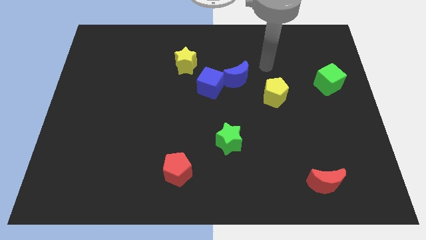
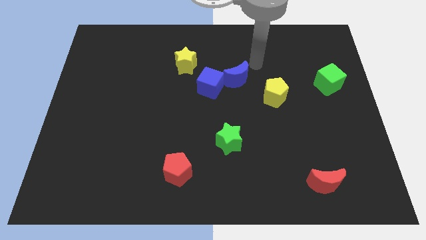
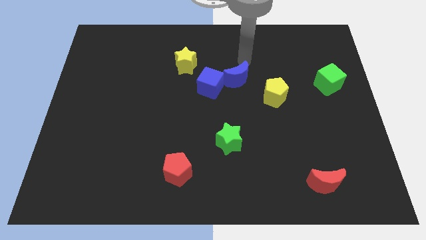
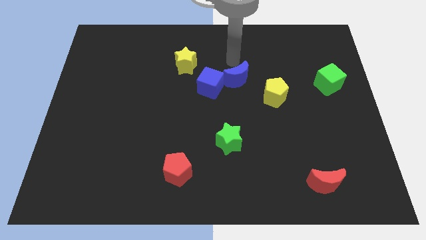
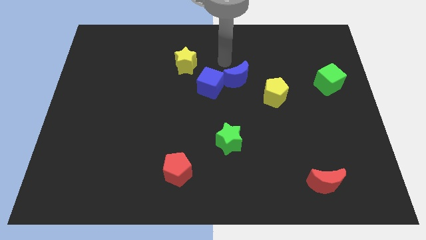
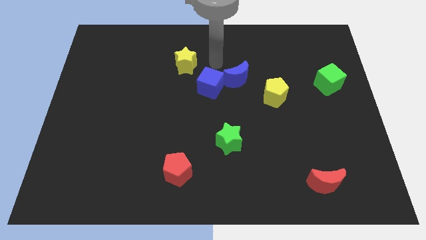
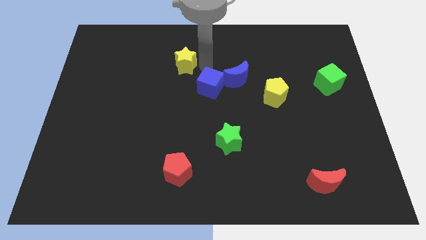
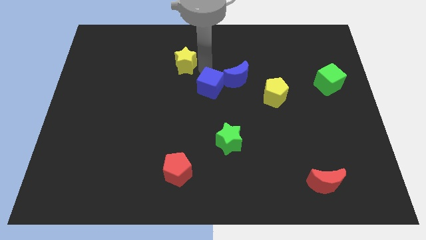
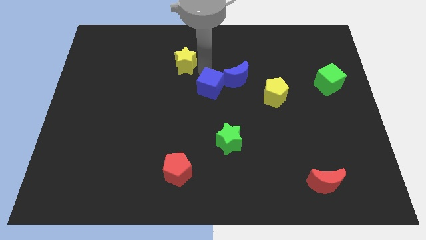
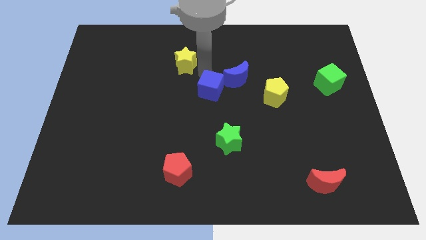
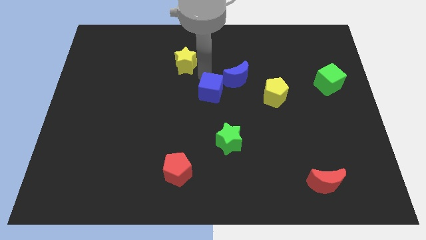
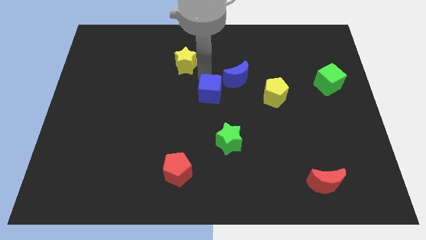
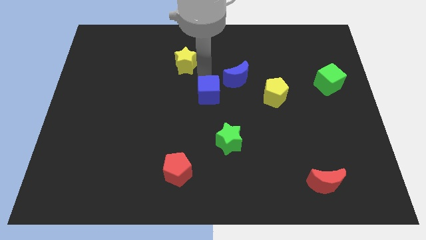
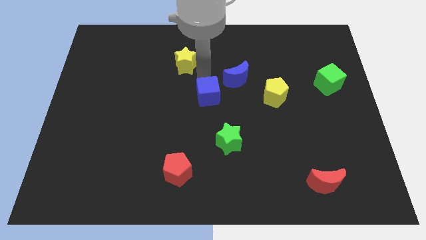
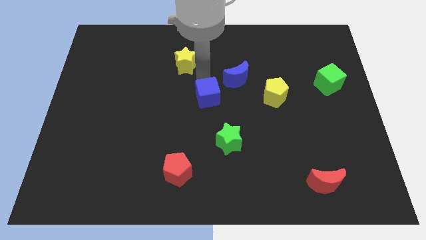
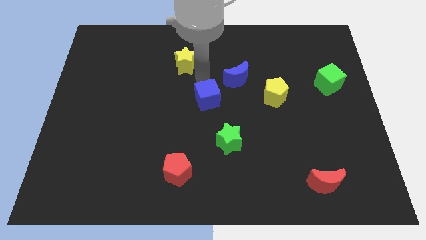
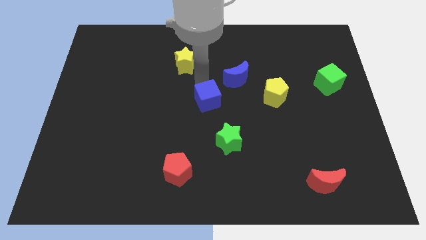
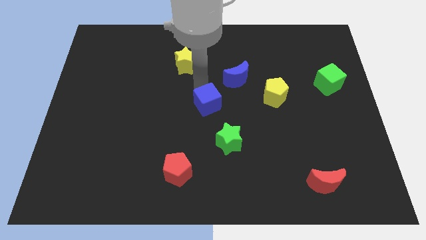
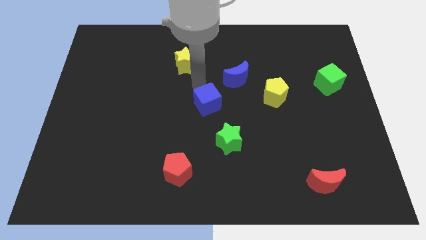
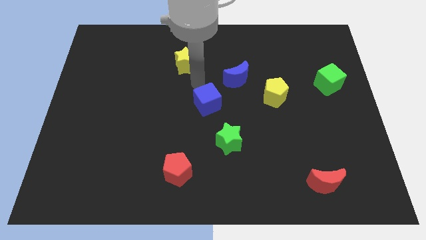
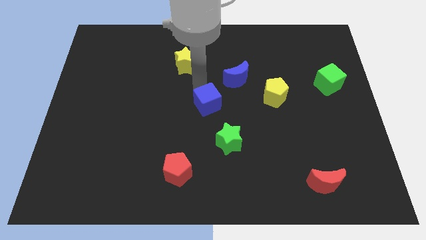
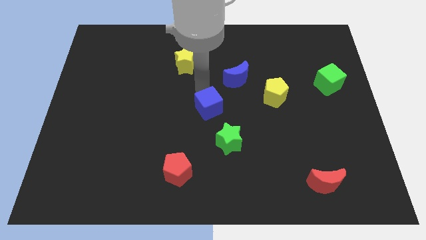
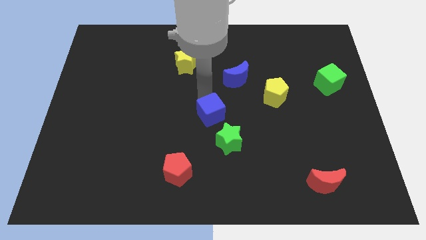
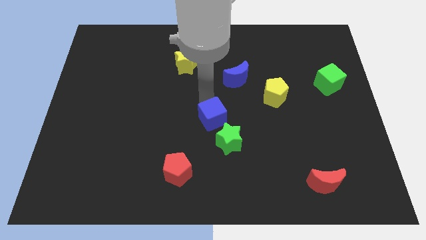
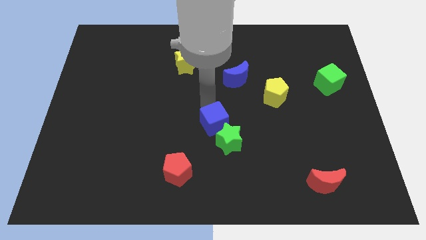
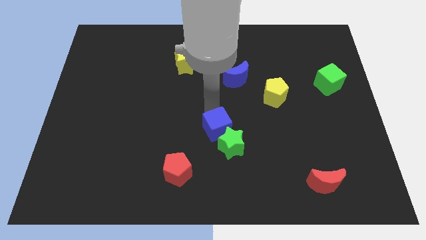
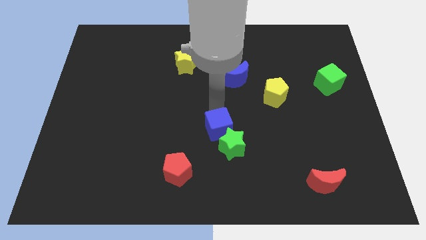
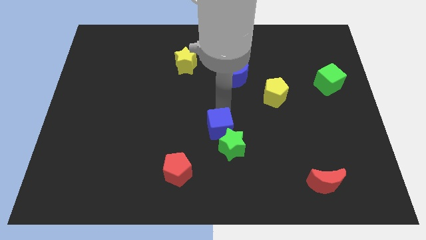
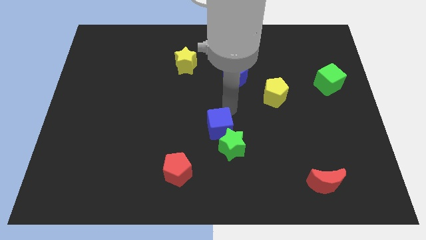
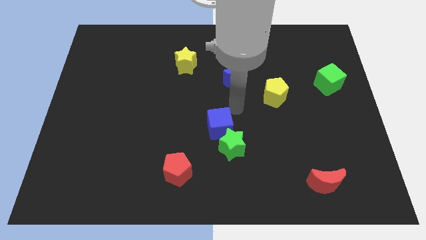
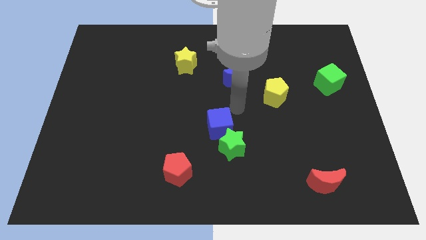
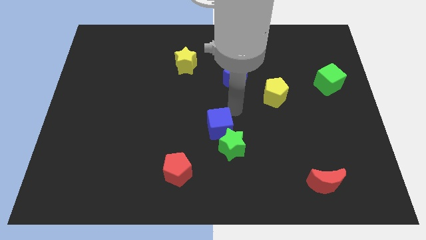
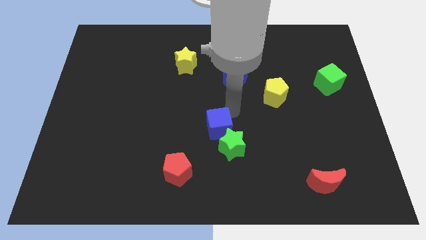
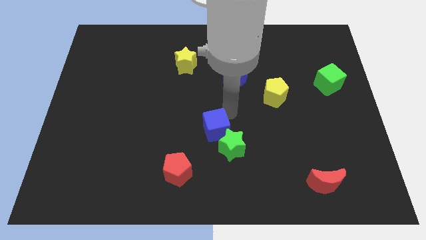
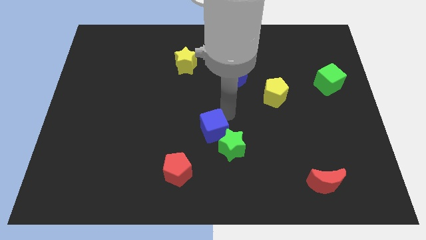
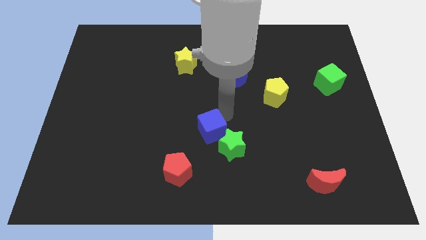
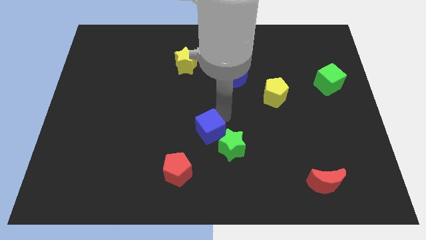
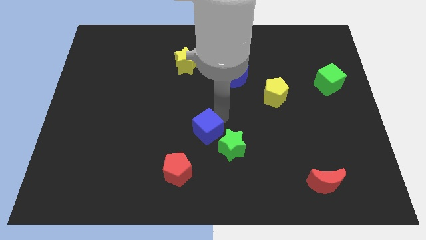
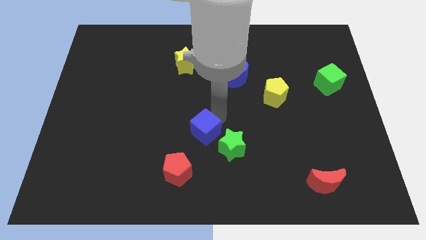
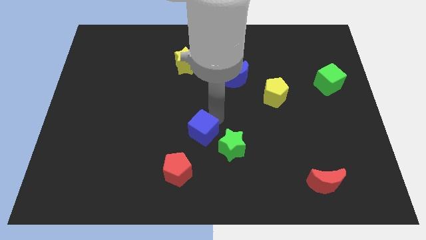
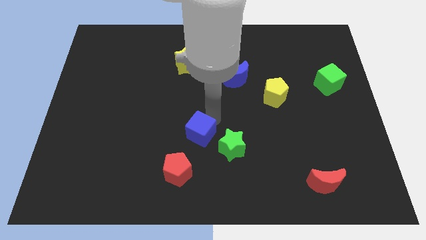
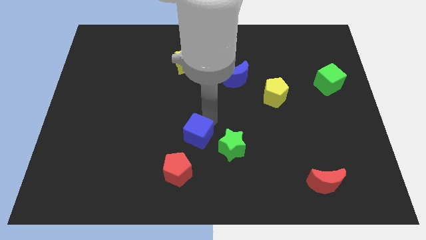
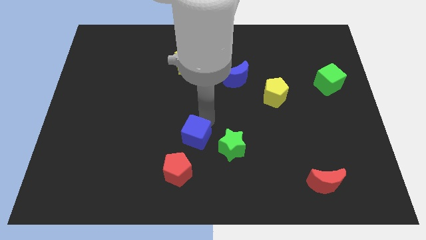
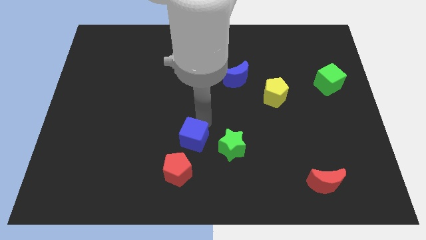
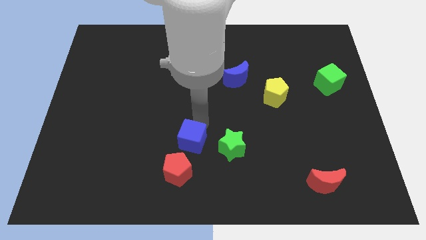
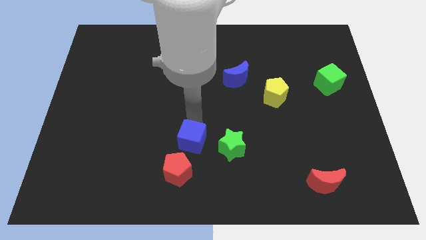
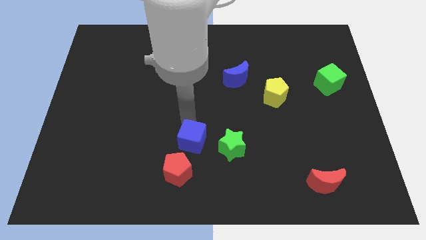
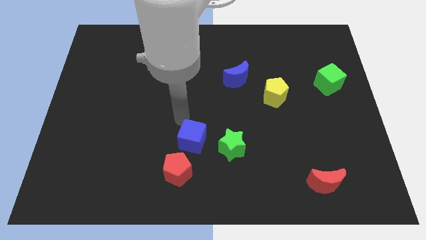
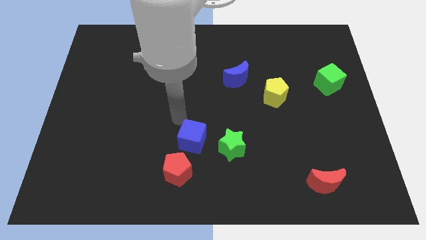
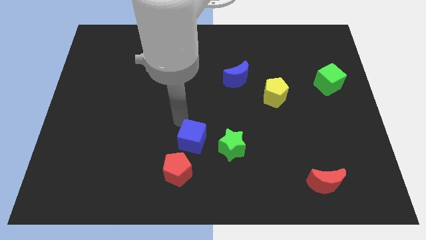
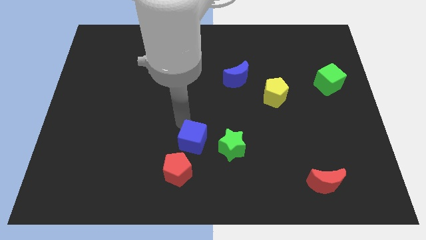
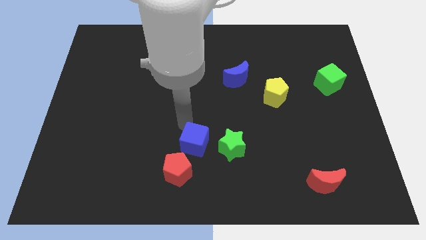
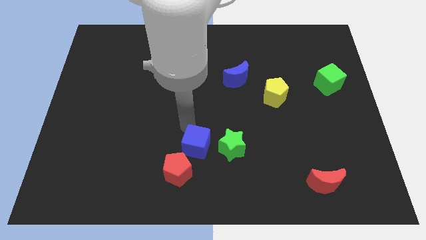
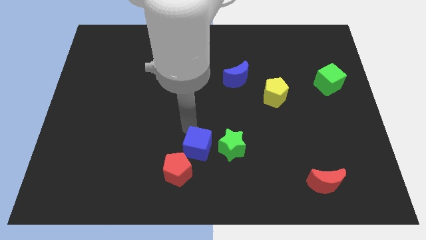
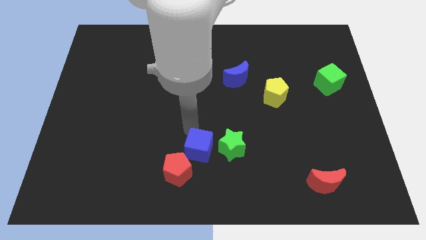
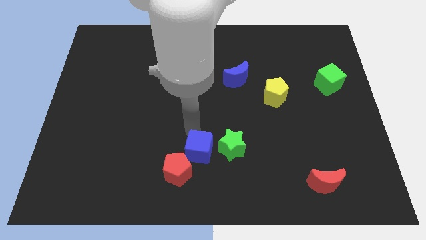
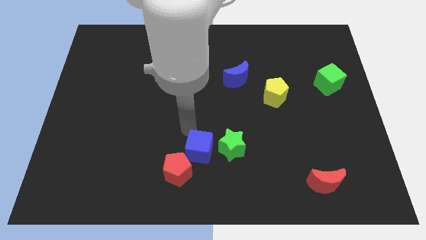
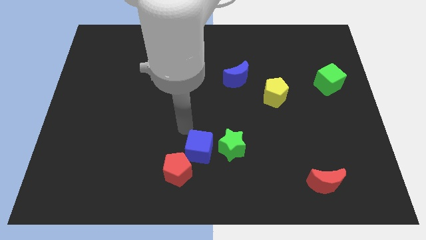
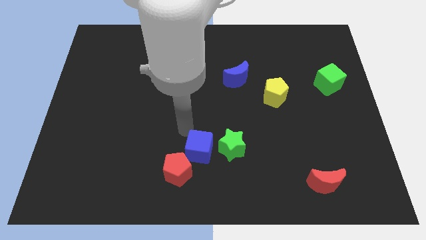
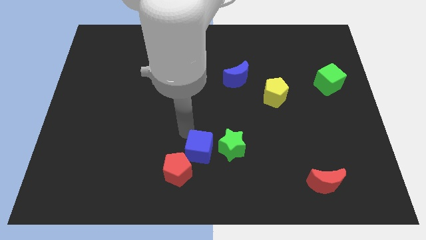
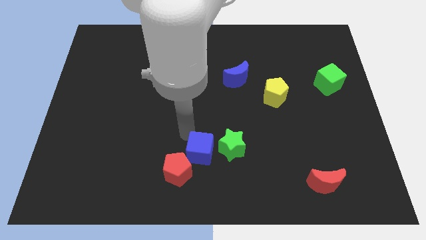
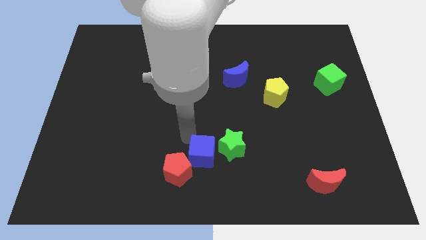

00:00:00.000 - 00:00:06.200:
push the blue cube to the bottom
